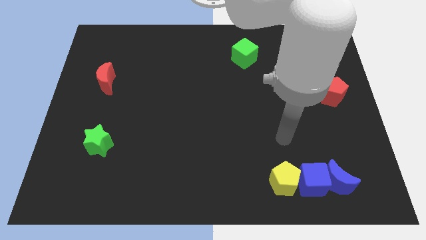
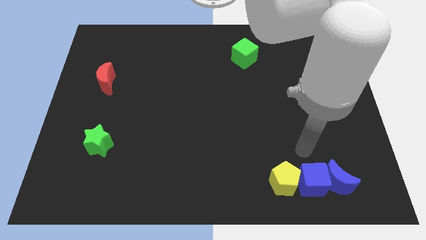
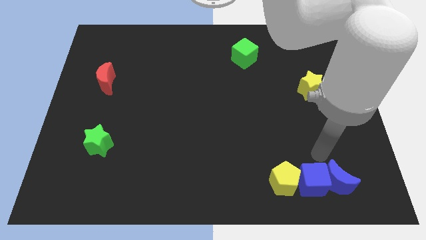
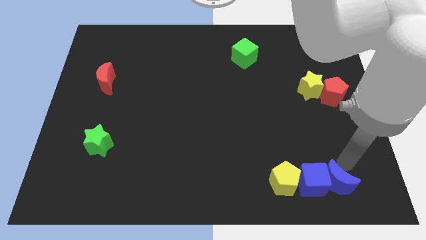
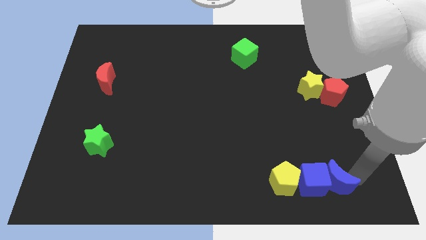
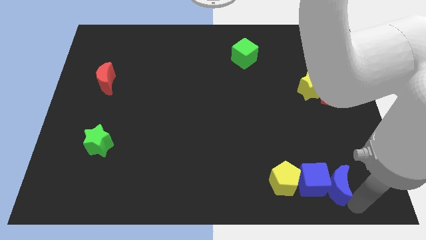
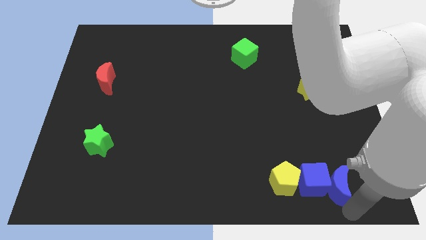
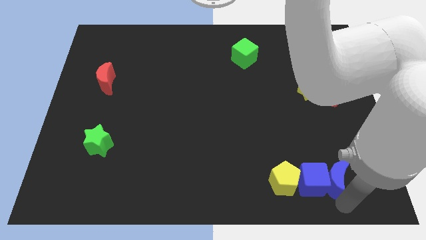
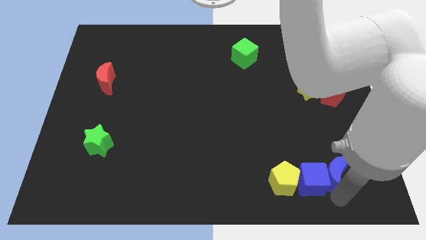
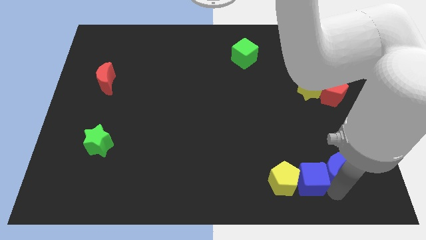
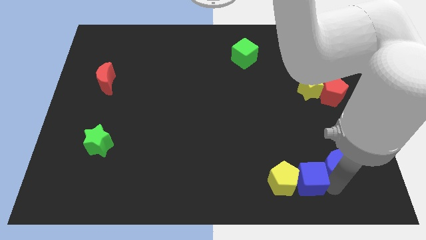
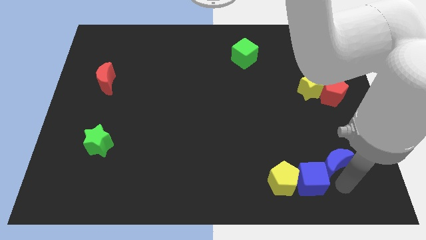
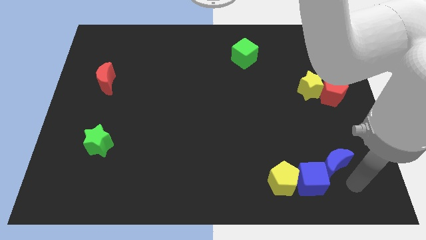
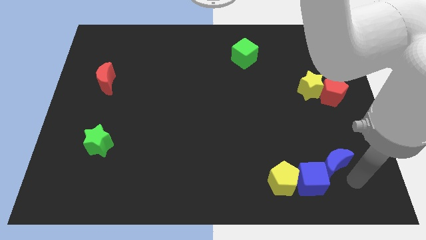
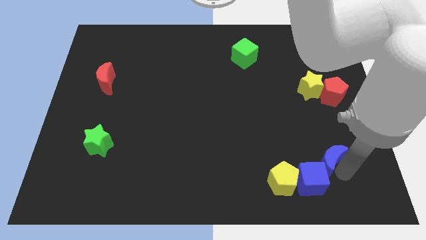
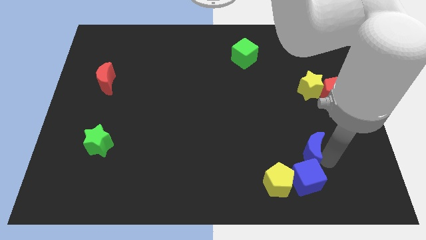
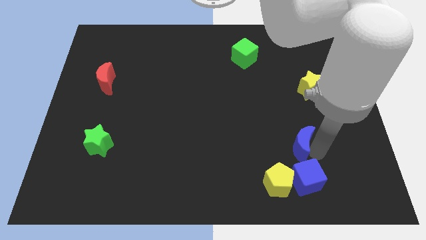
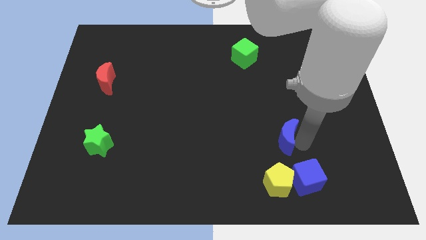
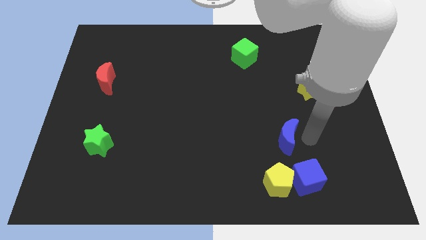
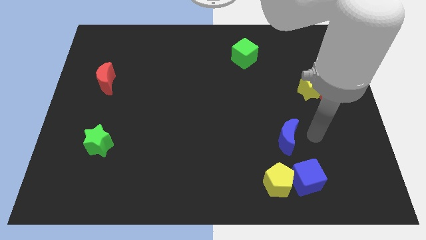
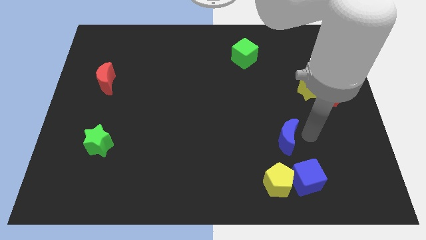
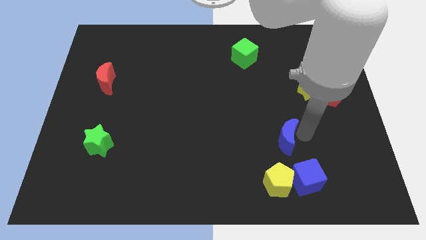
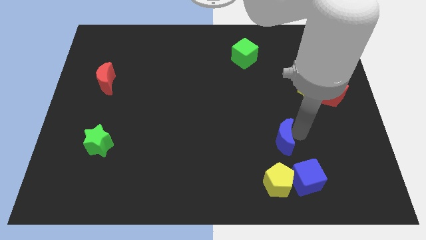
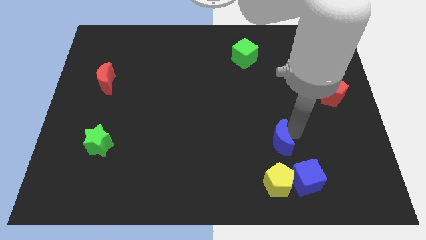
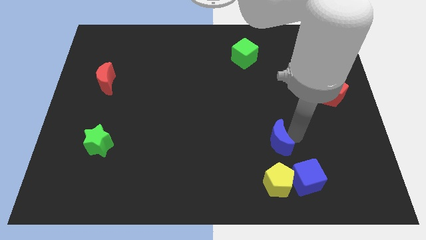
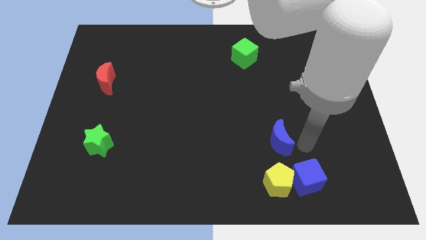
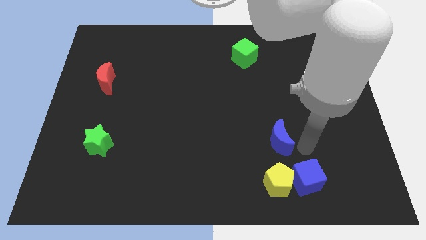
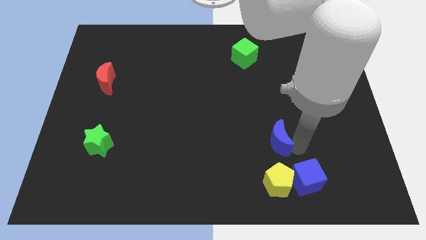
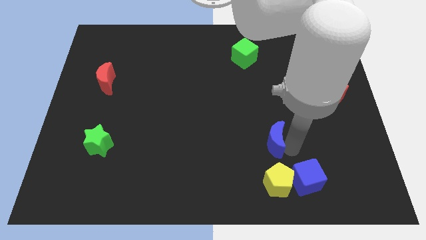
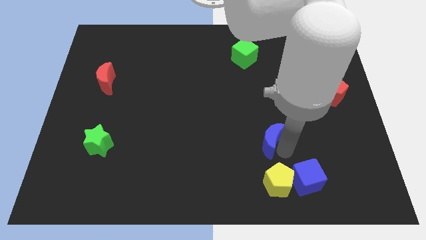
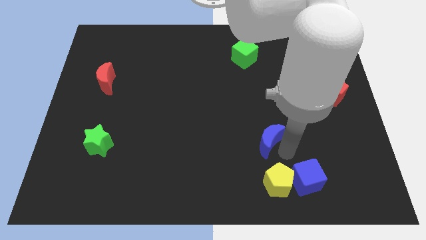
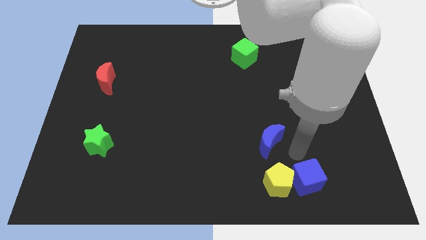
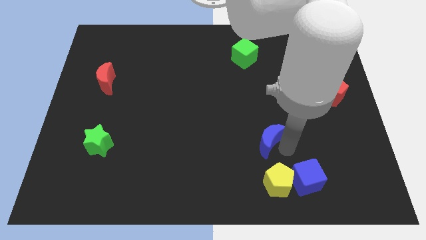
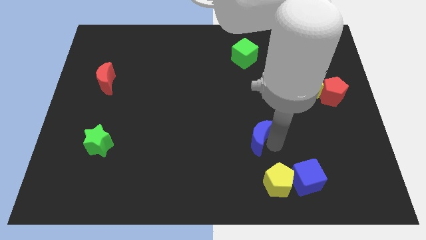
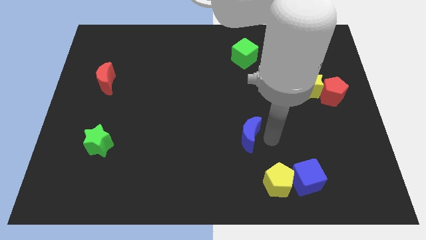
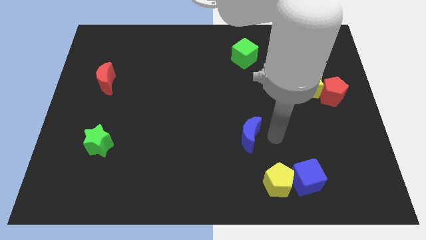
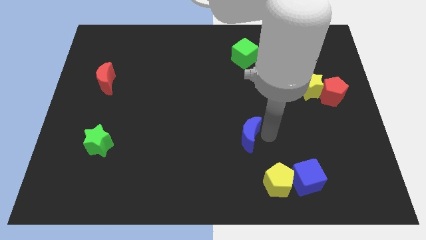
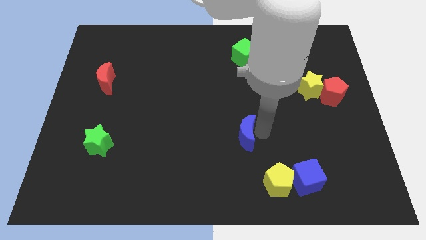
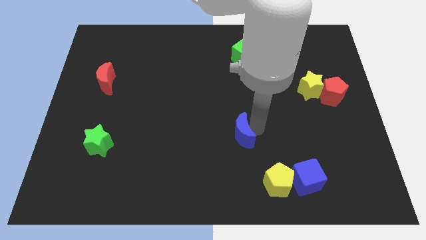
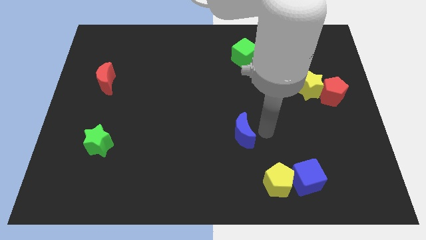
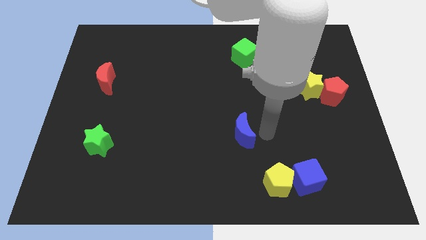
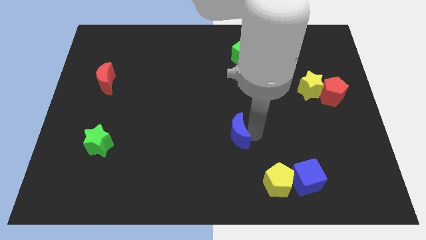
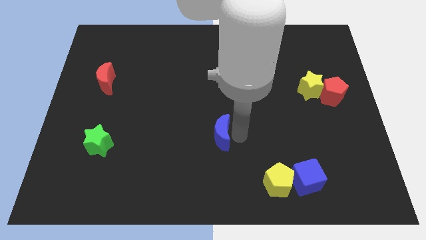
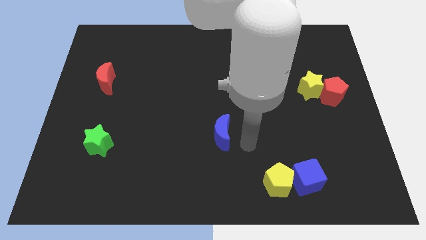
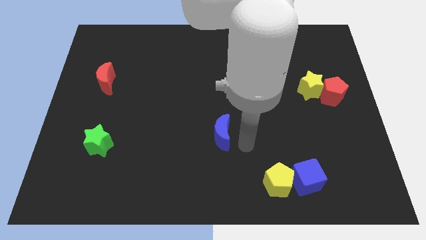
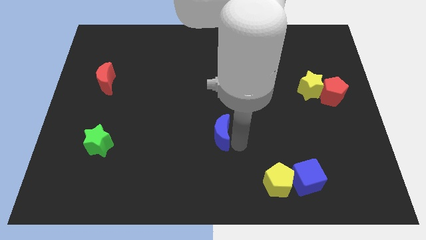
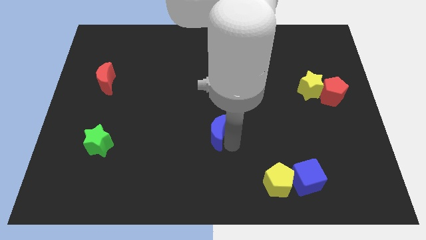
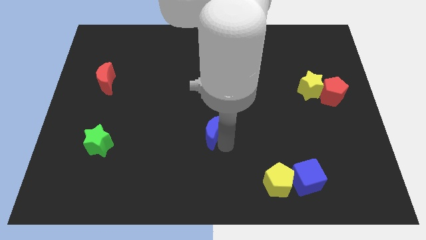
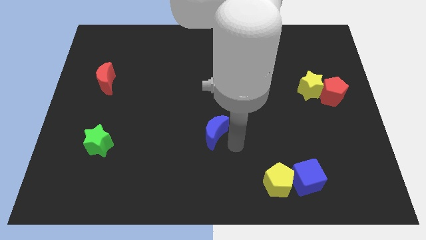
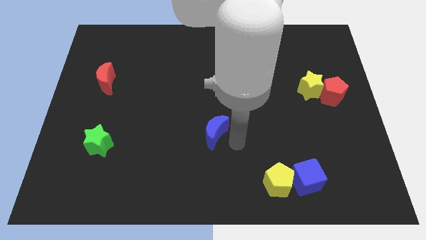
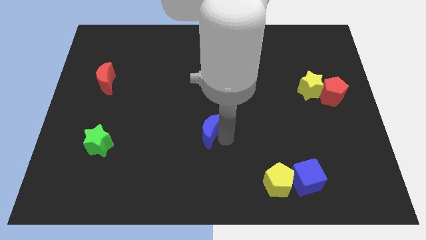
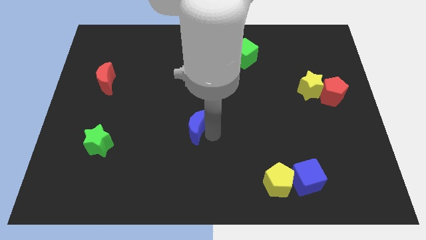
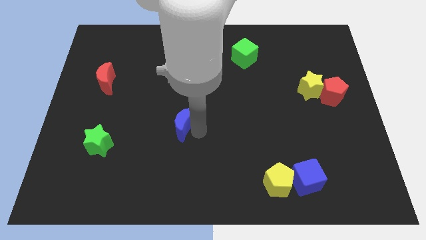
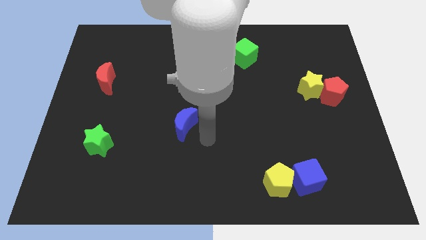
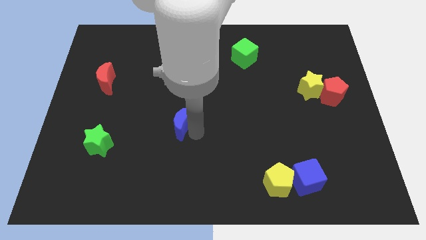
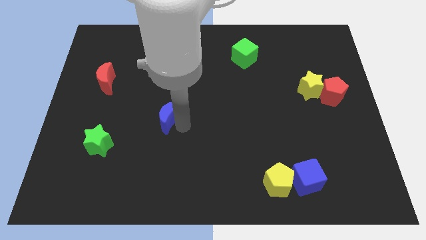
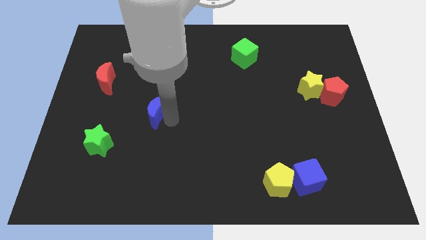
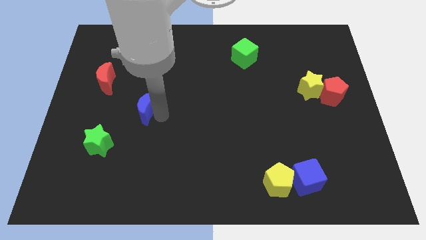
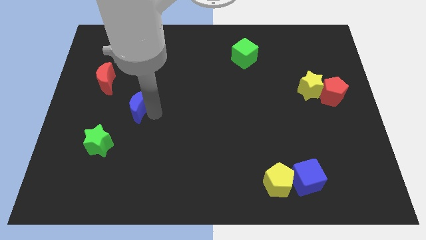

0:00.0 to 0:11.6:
move the blue moon to the bottom right side of the red moon

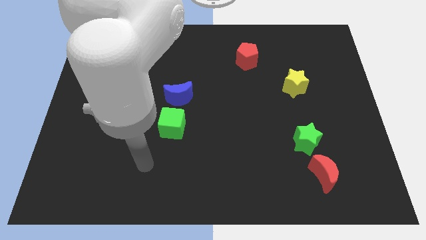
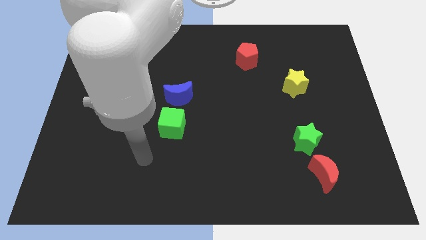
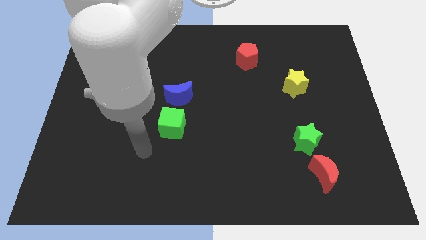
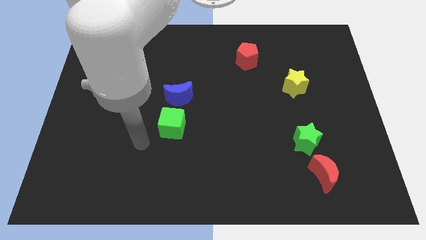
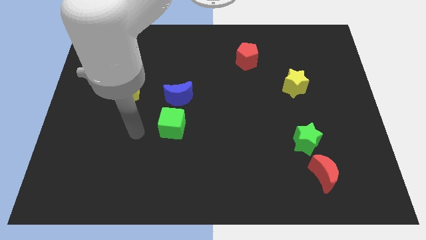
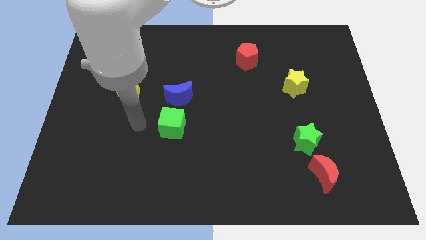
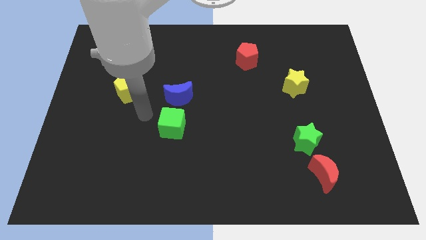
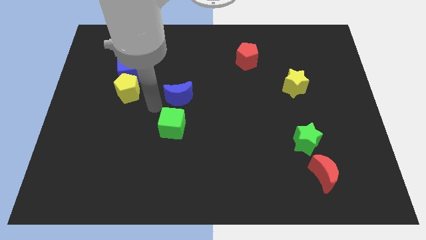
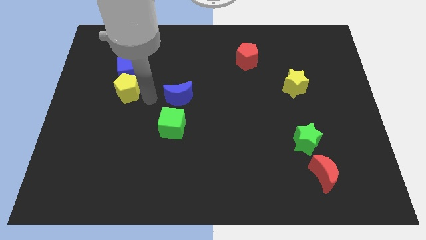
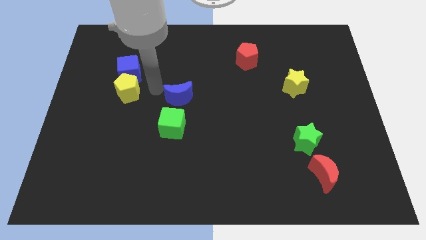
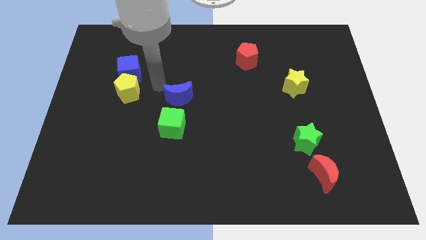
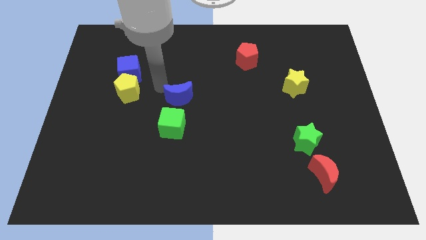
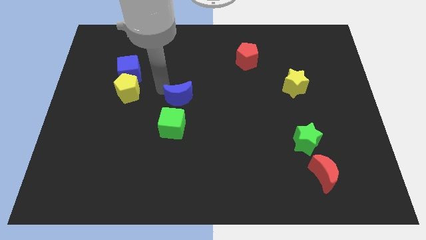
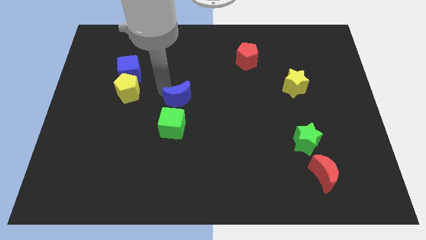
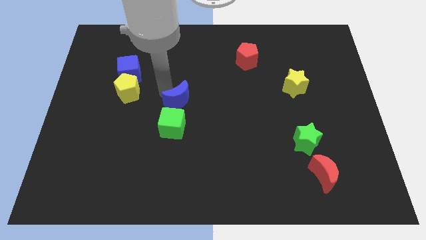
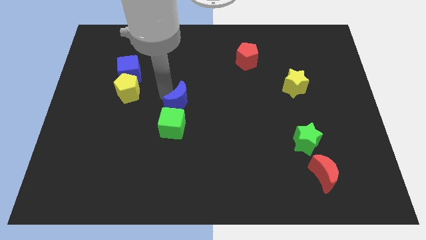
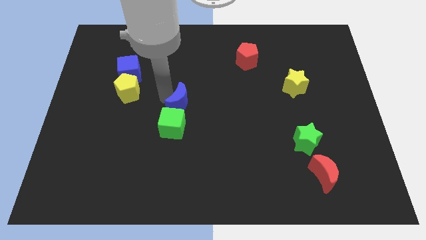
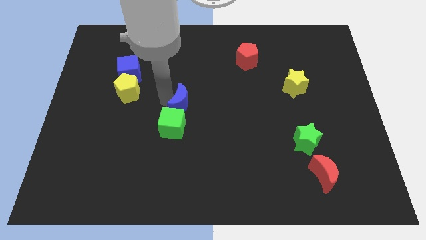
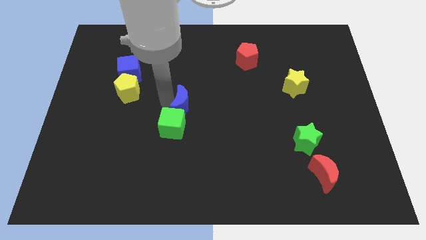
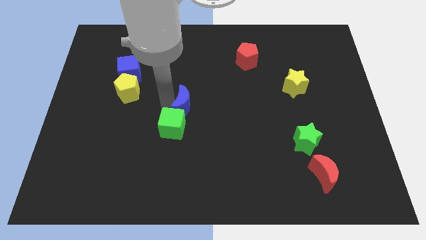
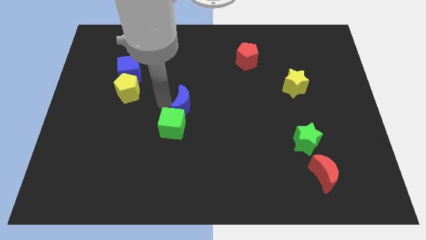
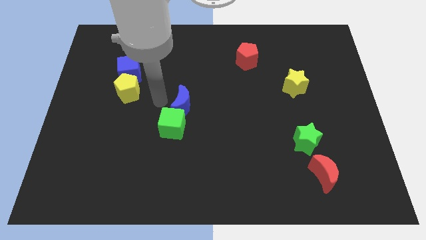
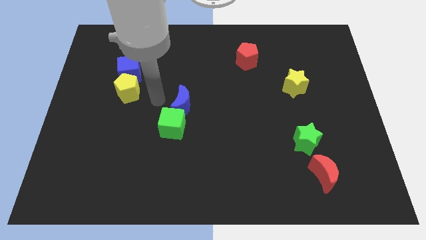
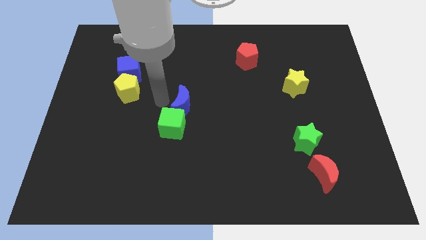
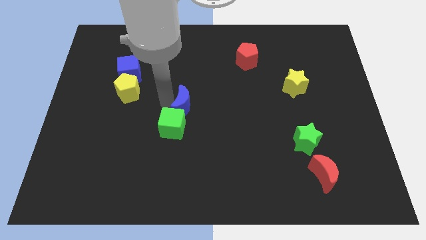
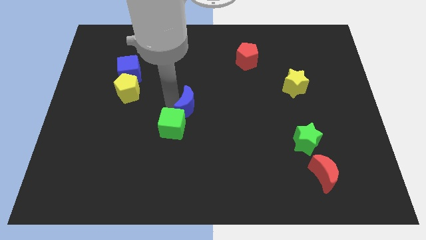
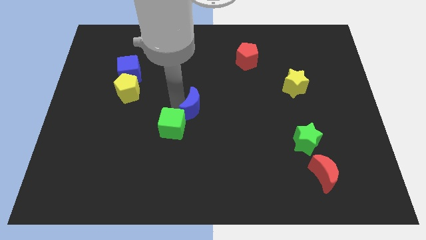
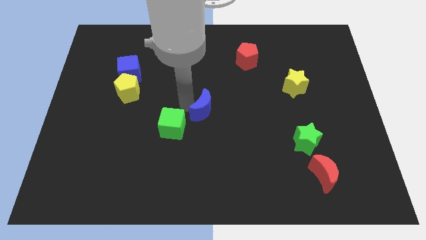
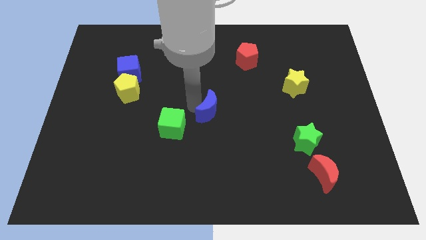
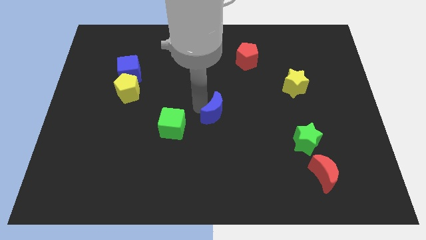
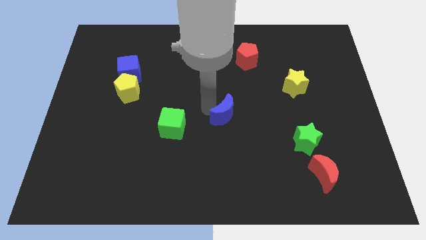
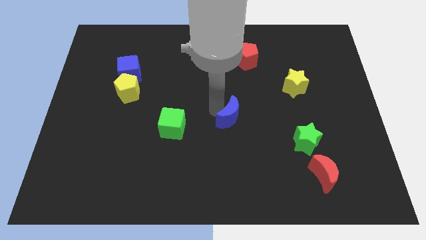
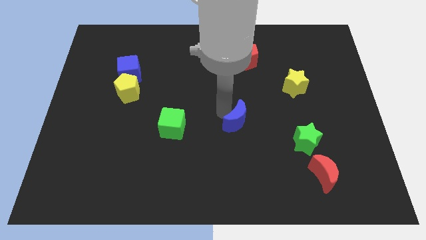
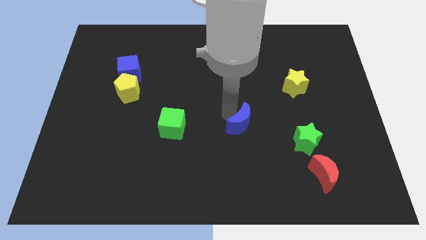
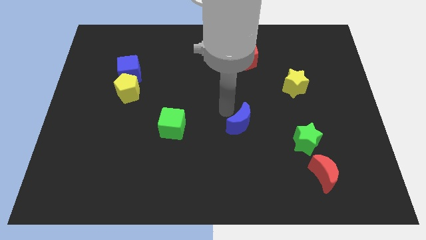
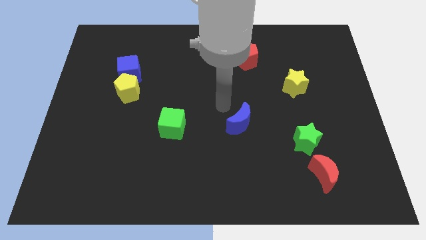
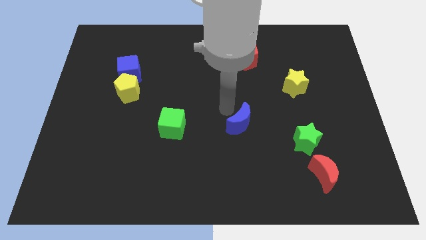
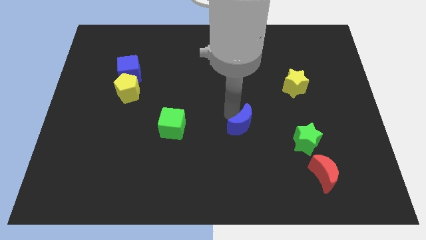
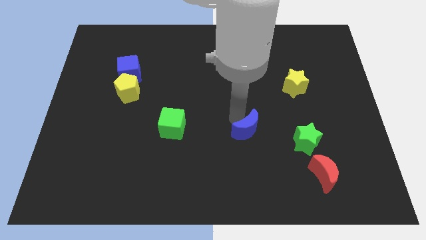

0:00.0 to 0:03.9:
push the blue moon left of the green star
